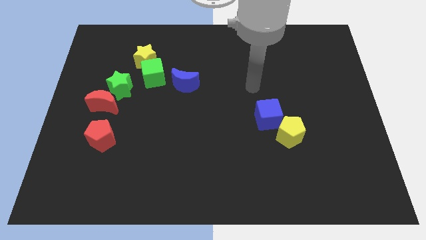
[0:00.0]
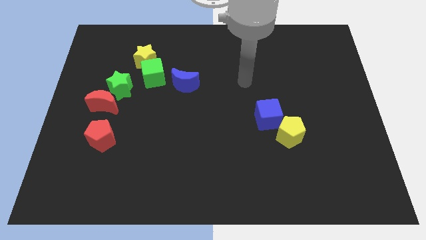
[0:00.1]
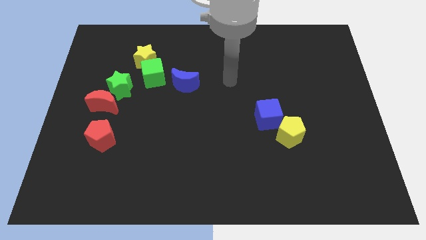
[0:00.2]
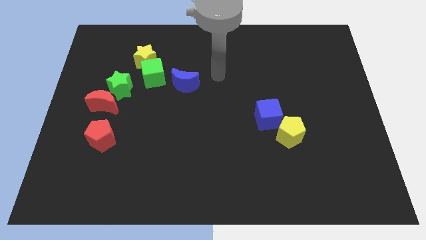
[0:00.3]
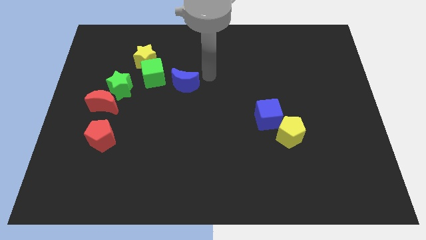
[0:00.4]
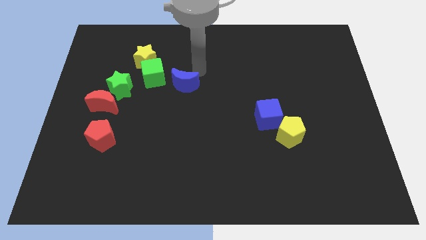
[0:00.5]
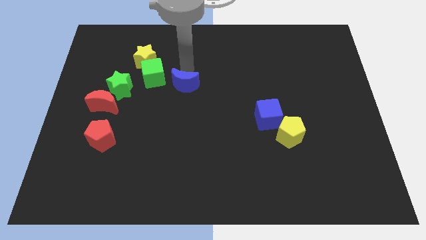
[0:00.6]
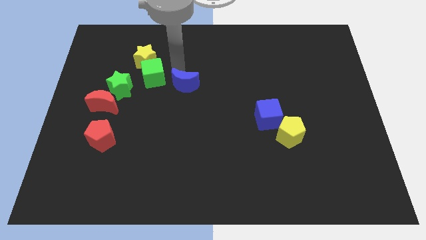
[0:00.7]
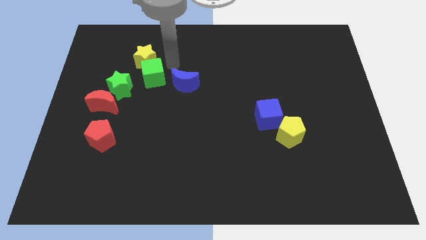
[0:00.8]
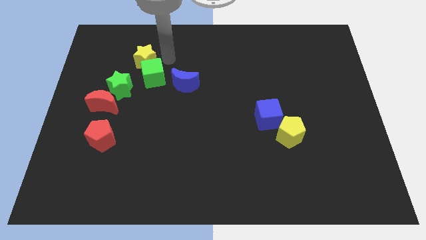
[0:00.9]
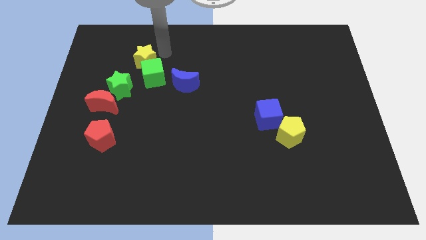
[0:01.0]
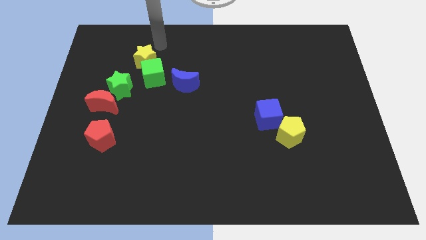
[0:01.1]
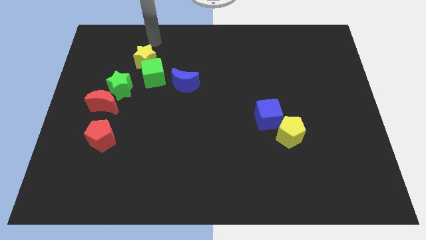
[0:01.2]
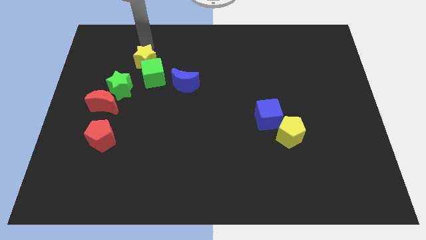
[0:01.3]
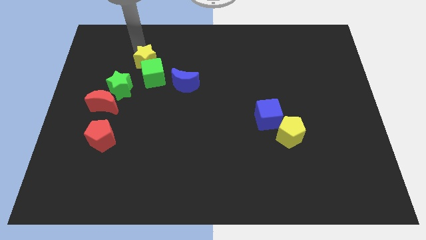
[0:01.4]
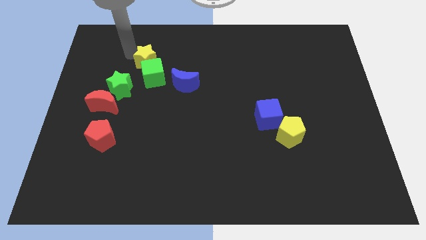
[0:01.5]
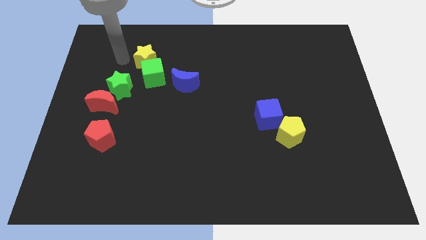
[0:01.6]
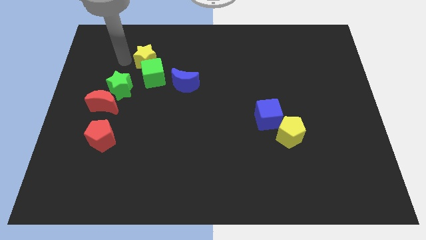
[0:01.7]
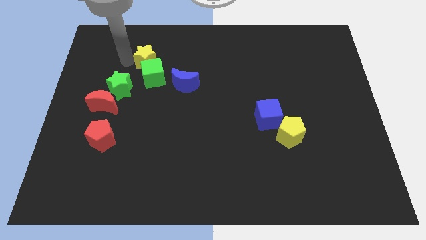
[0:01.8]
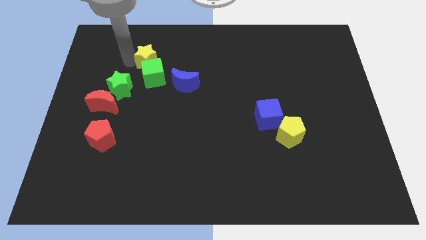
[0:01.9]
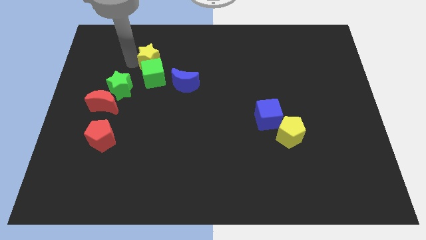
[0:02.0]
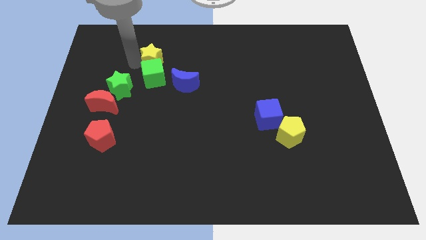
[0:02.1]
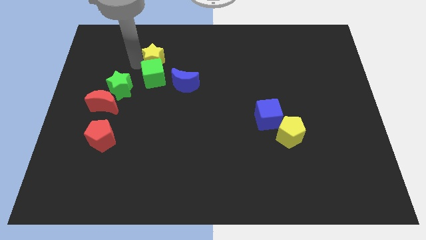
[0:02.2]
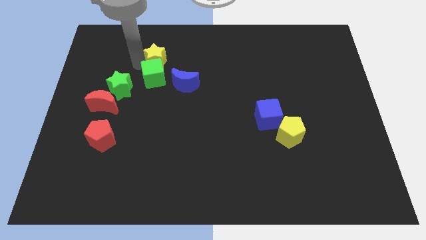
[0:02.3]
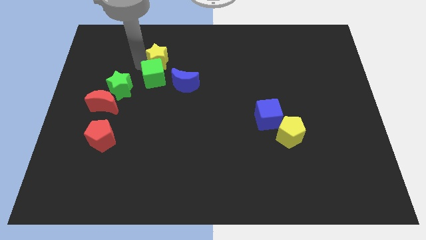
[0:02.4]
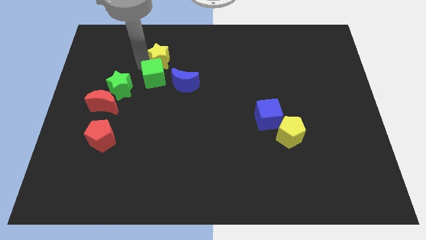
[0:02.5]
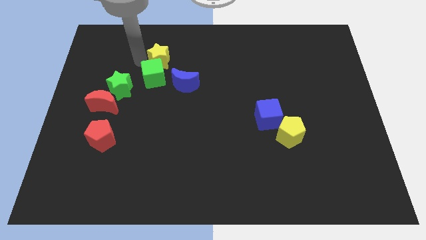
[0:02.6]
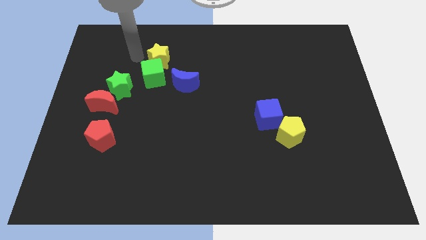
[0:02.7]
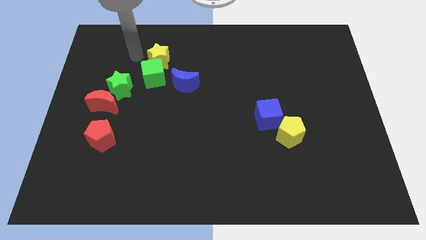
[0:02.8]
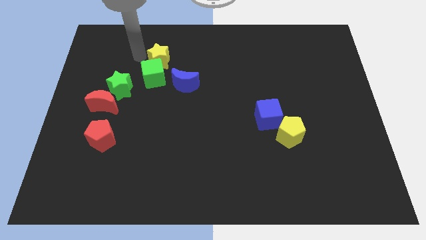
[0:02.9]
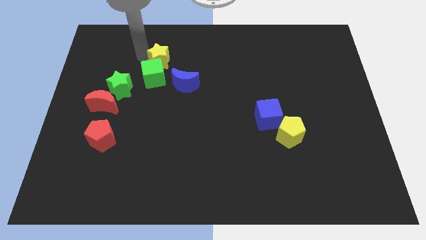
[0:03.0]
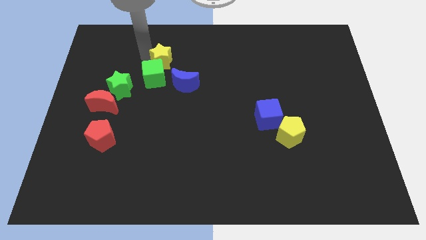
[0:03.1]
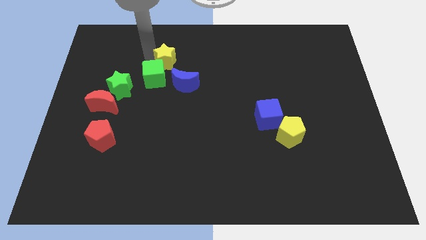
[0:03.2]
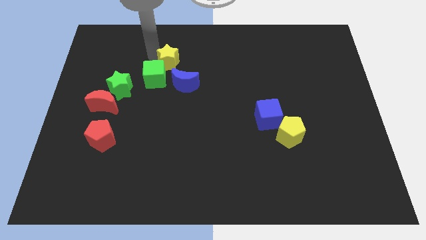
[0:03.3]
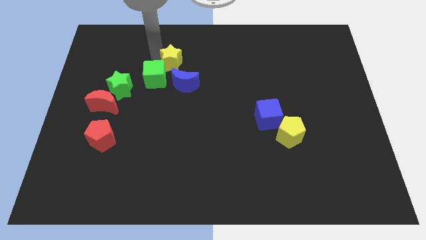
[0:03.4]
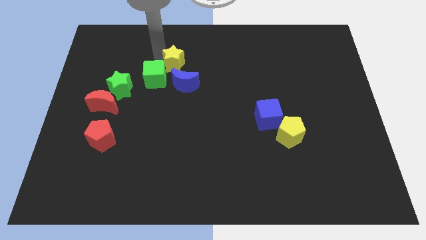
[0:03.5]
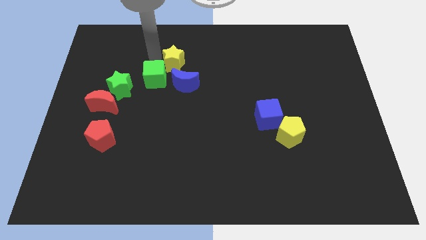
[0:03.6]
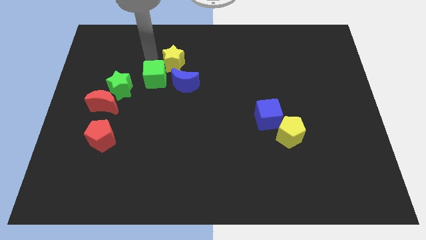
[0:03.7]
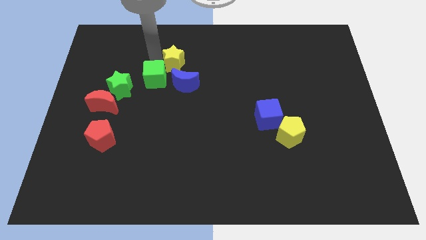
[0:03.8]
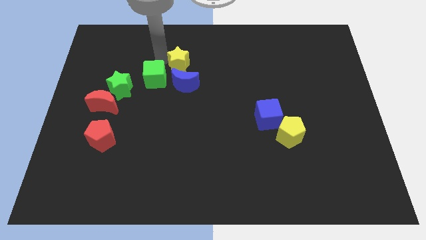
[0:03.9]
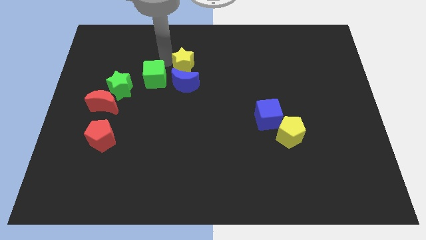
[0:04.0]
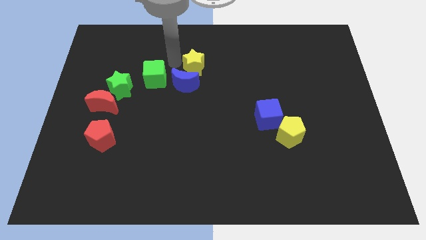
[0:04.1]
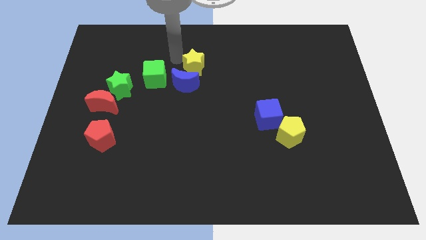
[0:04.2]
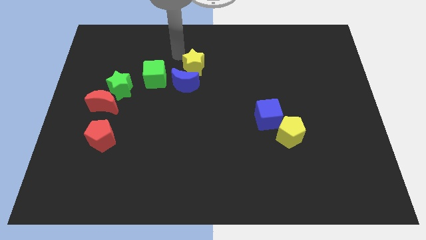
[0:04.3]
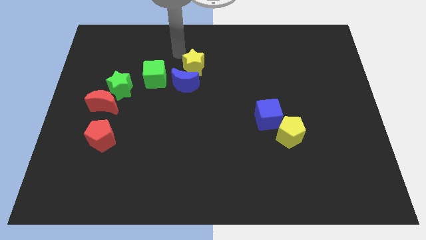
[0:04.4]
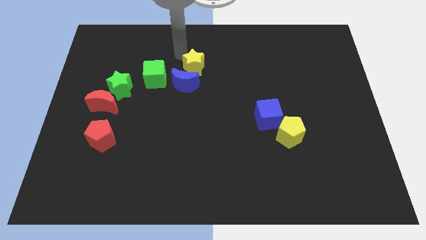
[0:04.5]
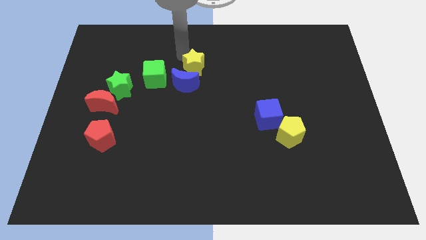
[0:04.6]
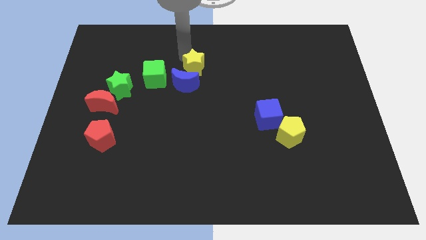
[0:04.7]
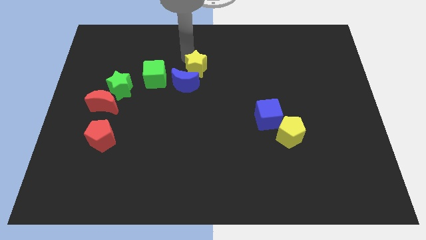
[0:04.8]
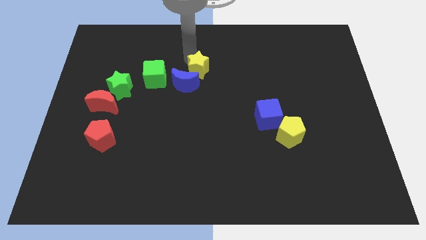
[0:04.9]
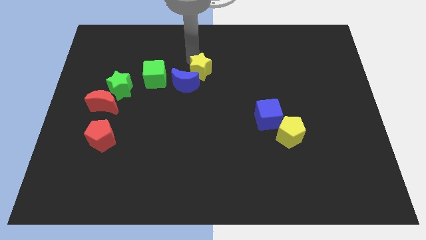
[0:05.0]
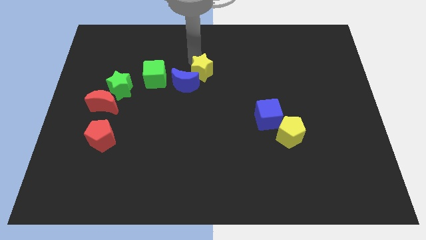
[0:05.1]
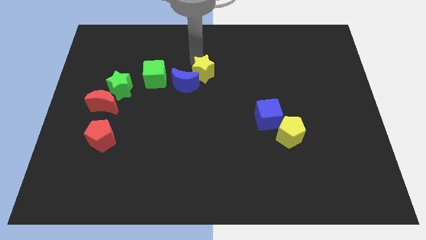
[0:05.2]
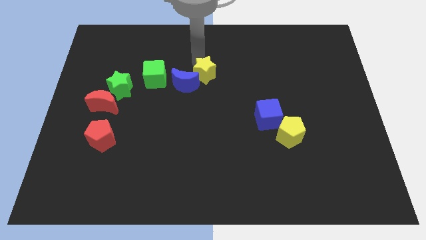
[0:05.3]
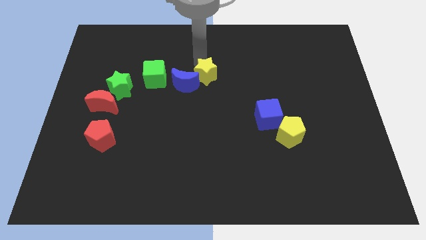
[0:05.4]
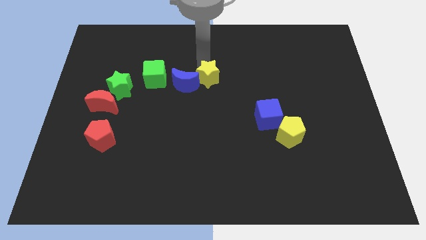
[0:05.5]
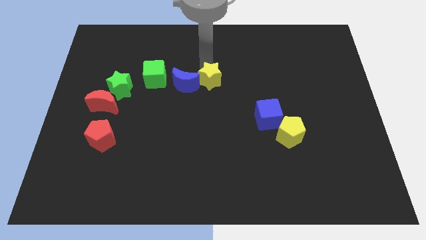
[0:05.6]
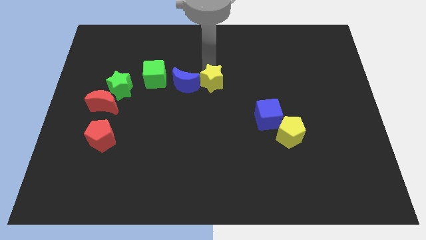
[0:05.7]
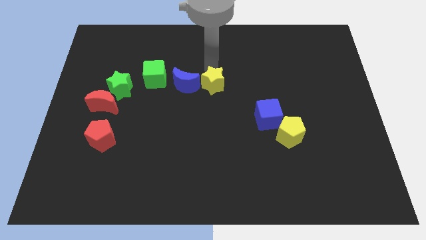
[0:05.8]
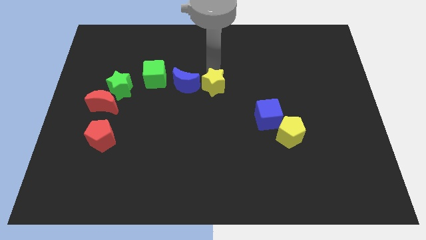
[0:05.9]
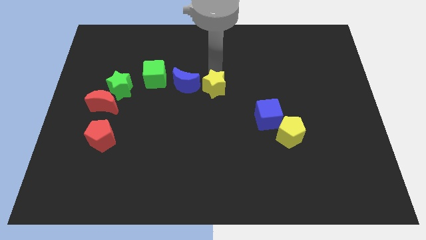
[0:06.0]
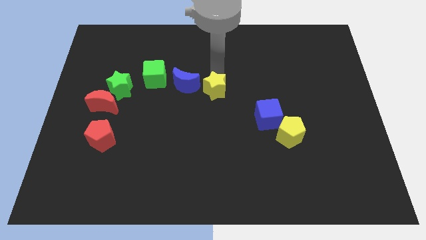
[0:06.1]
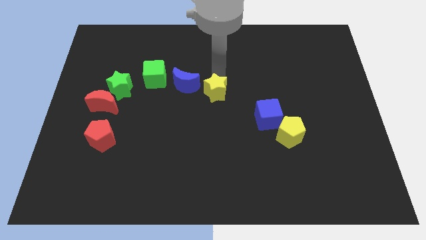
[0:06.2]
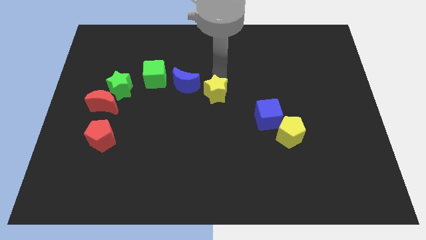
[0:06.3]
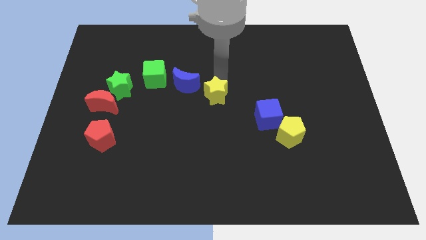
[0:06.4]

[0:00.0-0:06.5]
push the yellow star diagonally down and to the right

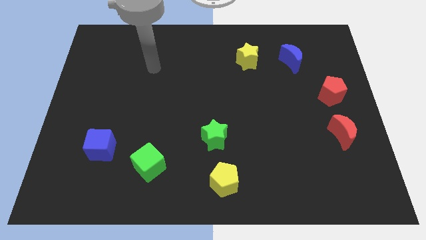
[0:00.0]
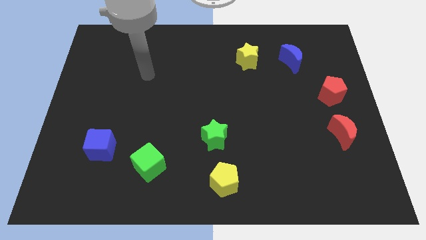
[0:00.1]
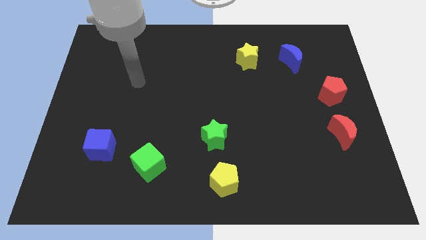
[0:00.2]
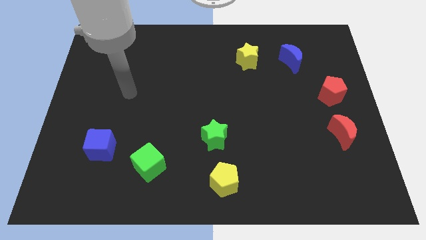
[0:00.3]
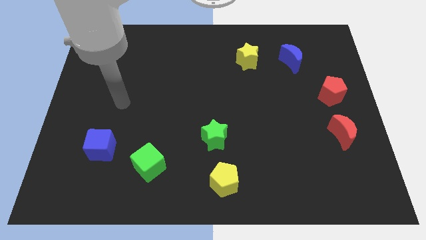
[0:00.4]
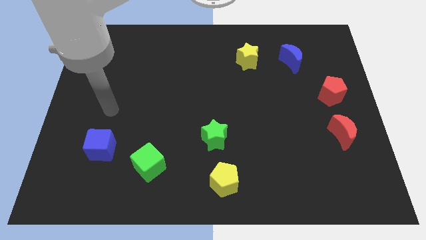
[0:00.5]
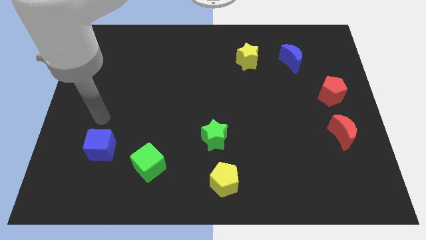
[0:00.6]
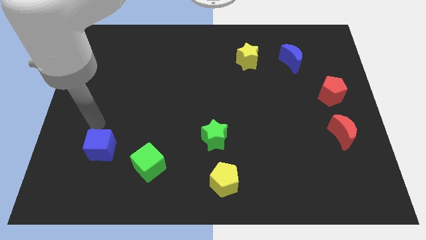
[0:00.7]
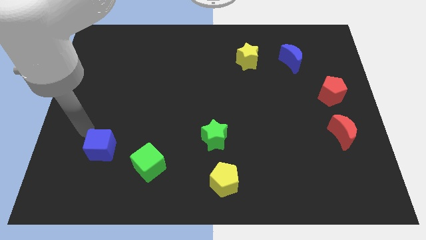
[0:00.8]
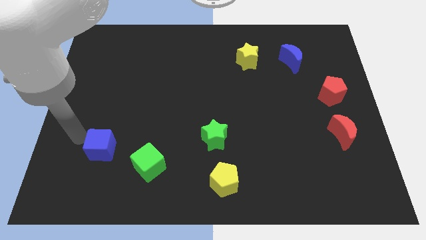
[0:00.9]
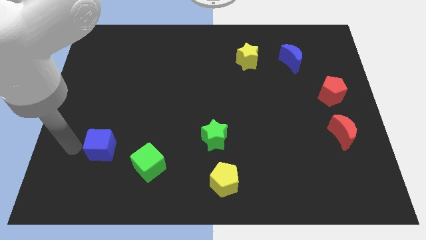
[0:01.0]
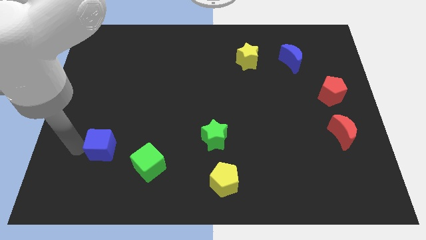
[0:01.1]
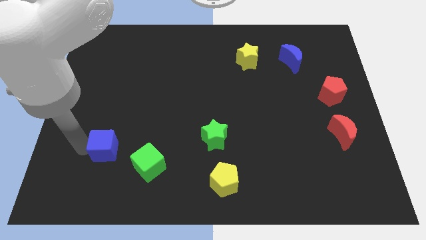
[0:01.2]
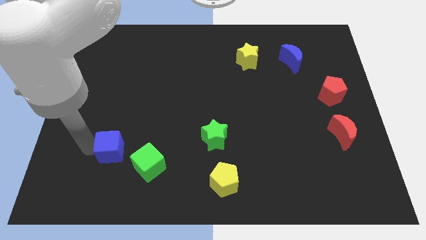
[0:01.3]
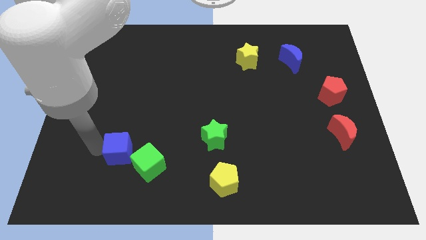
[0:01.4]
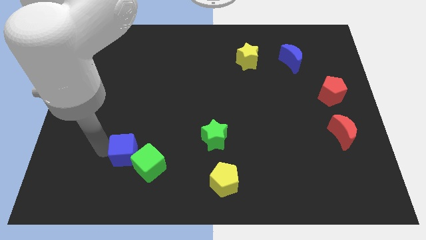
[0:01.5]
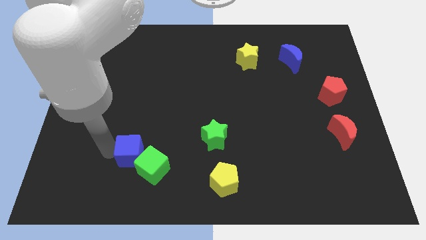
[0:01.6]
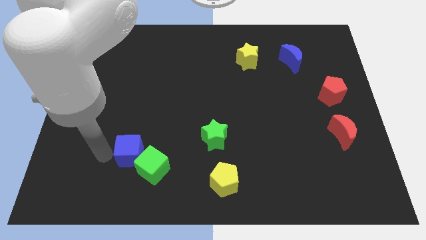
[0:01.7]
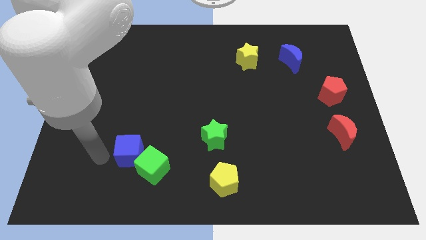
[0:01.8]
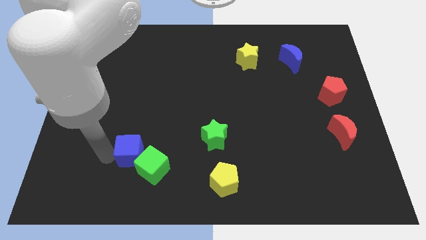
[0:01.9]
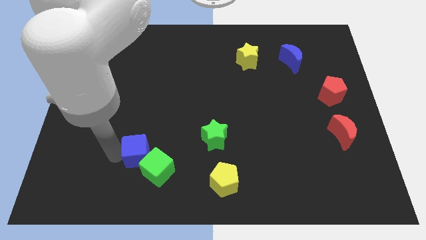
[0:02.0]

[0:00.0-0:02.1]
push the blue cube a little to the right
